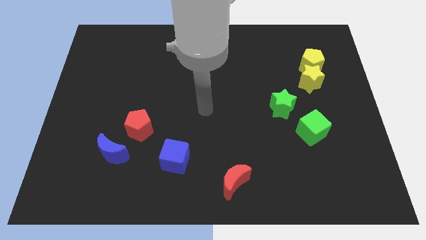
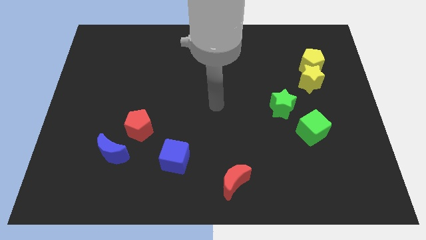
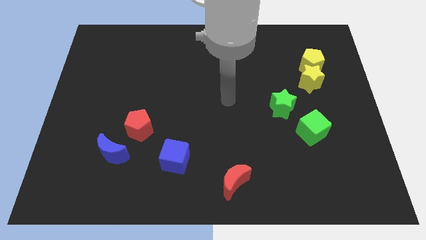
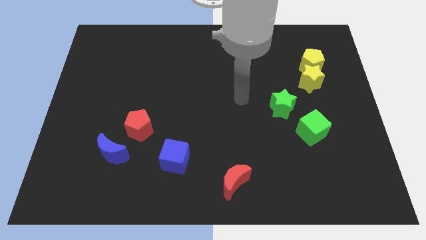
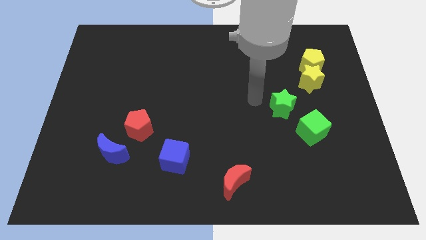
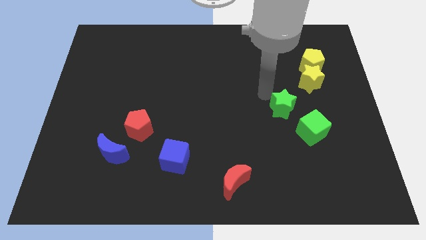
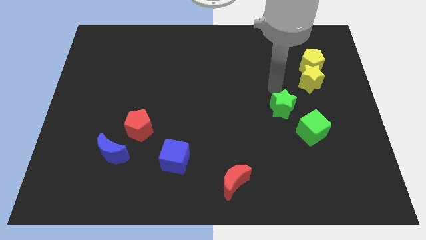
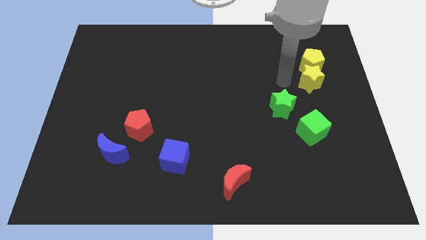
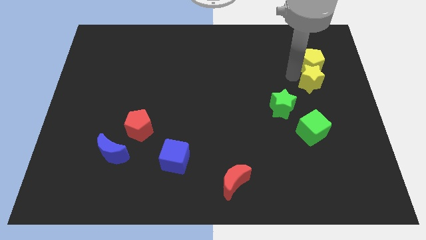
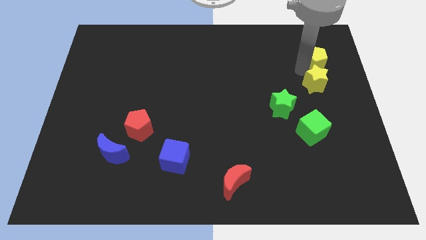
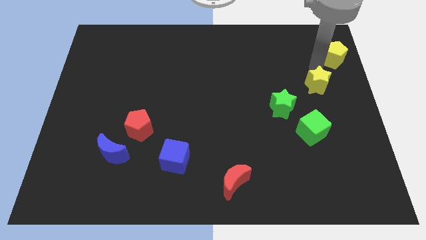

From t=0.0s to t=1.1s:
pull the yellow star apart from the yellow pentagon

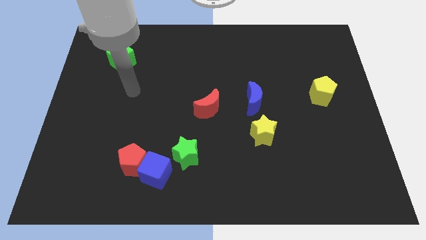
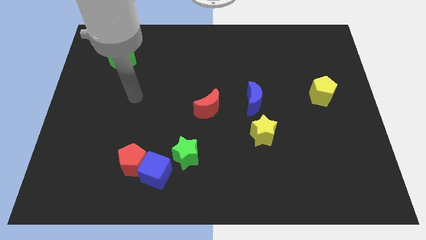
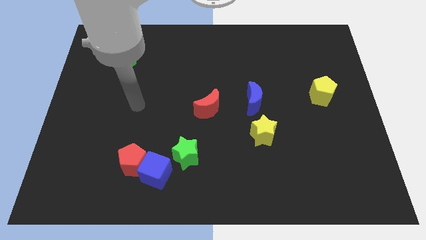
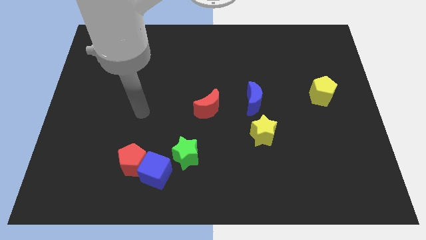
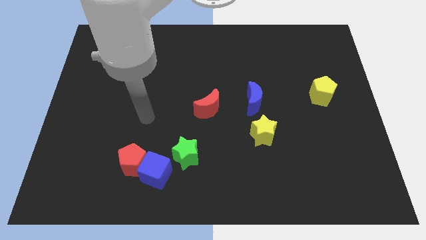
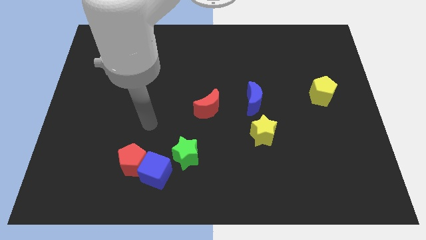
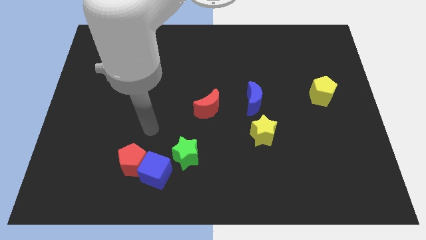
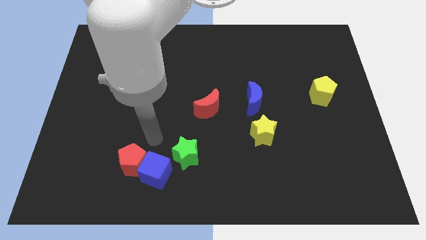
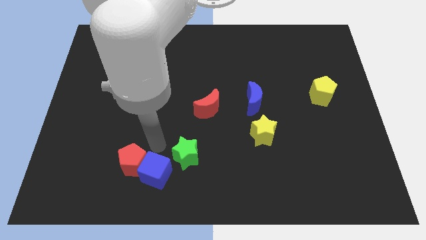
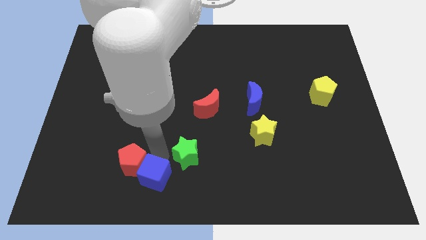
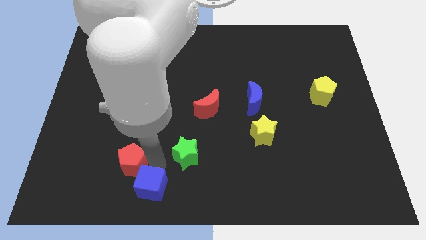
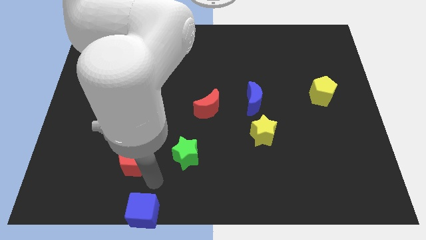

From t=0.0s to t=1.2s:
separate the red pentagon from the blue cube

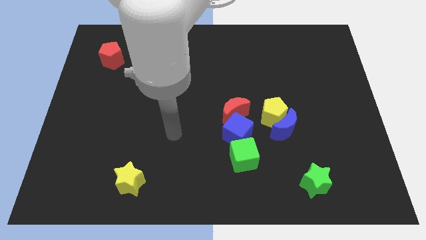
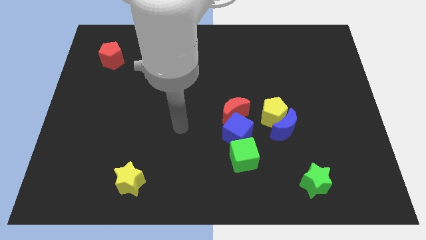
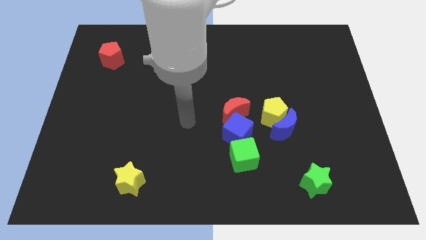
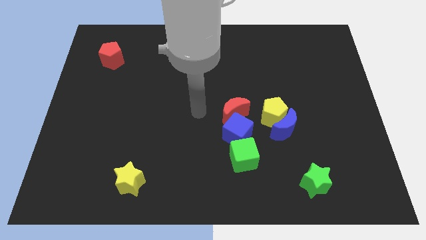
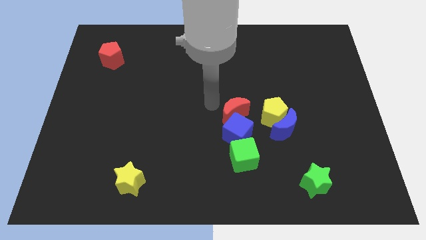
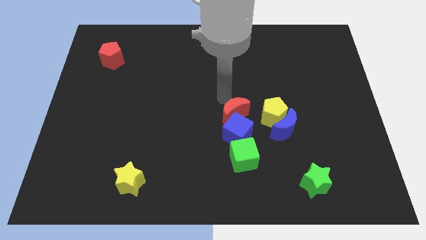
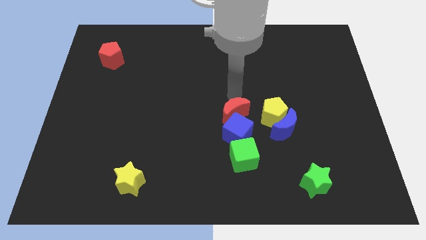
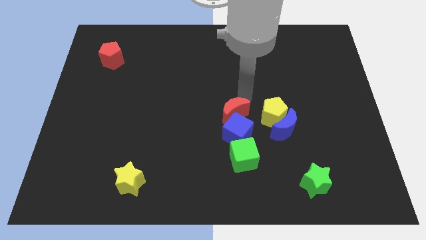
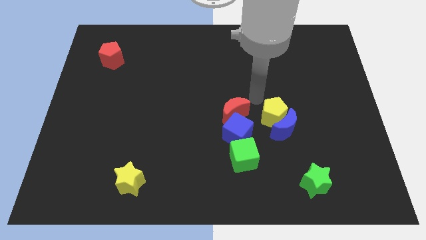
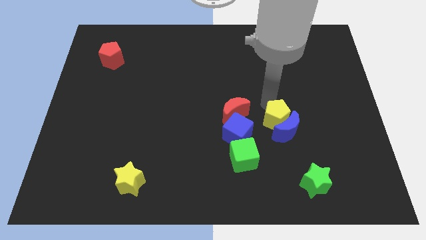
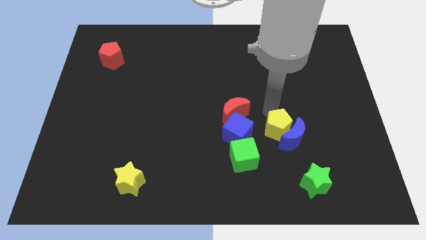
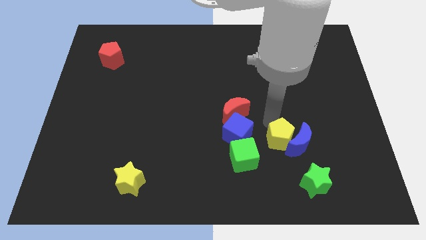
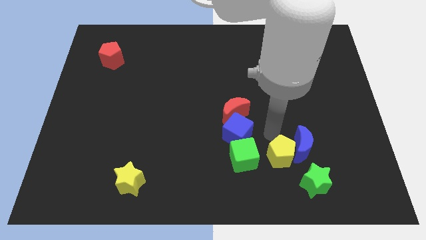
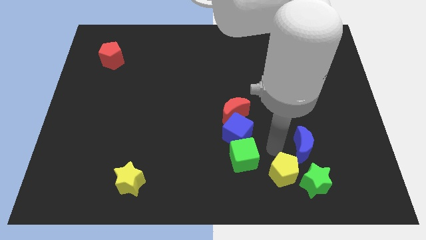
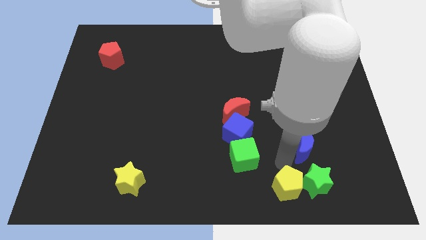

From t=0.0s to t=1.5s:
move the blue moon away from the yellow pentagon

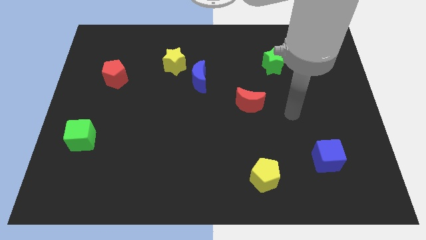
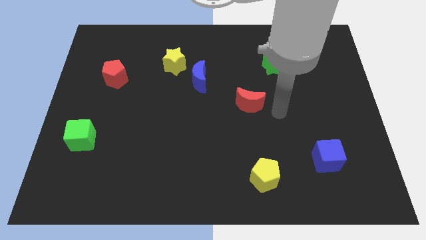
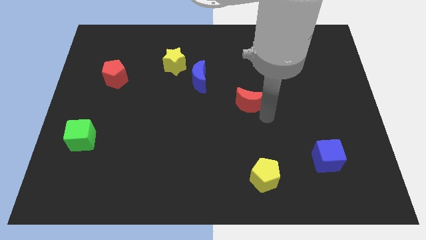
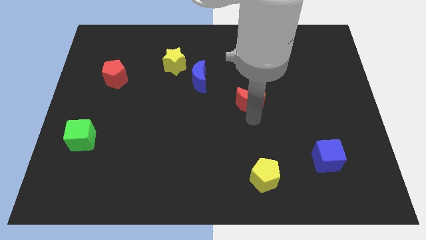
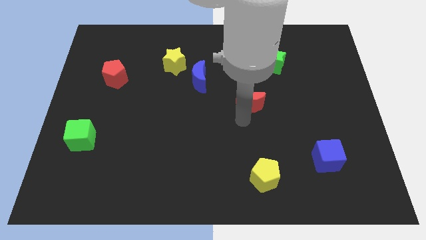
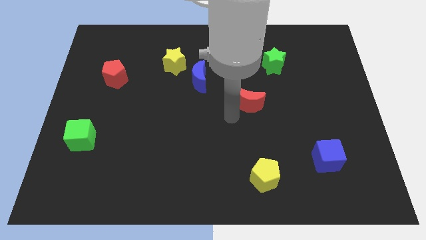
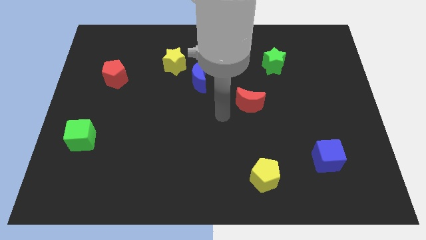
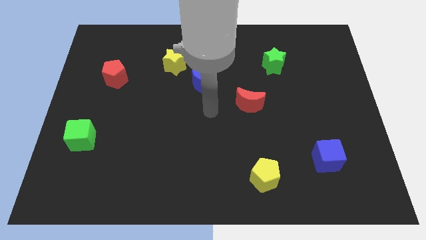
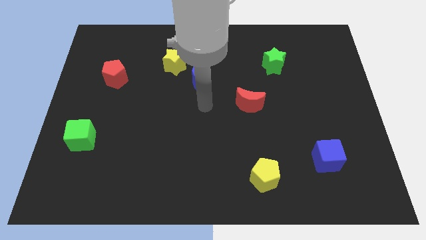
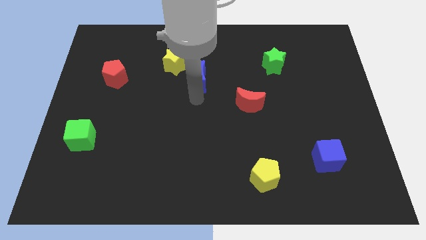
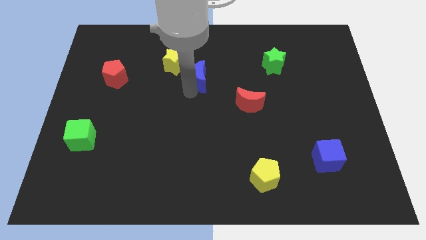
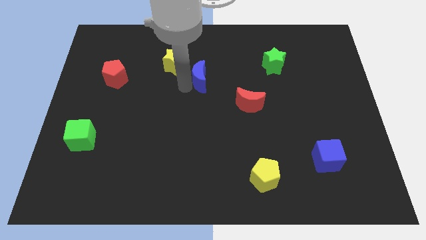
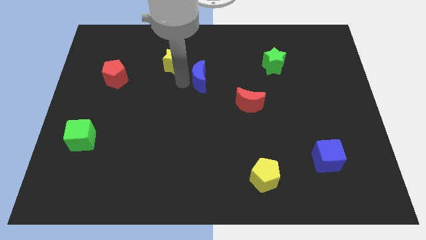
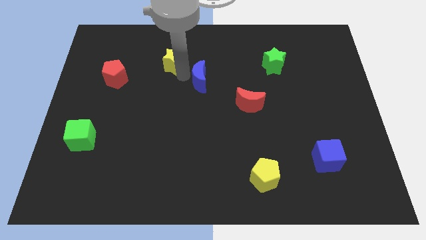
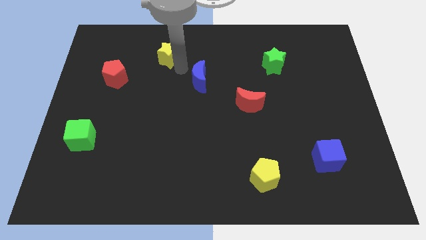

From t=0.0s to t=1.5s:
separate the blue moon from the yellow star

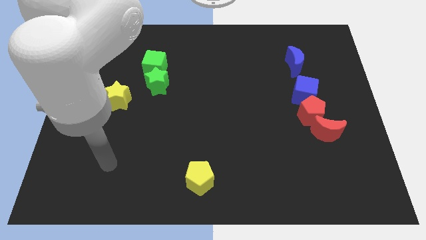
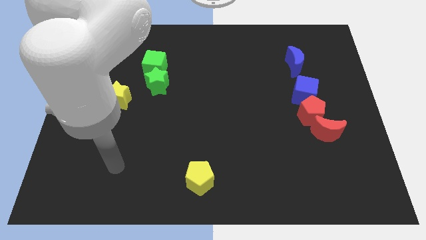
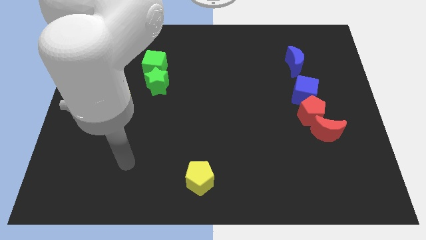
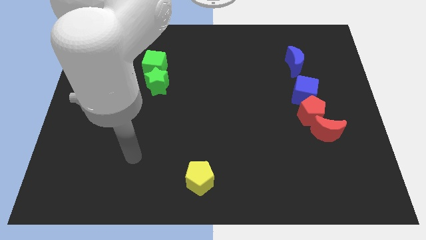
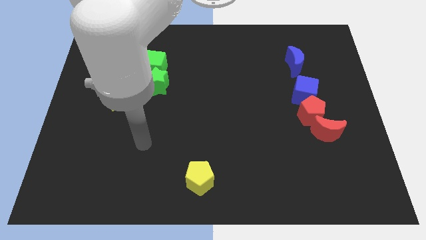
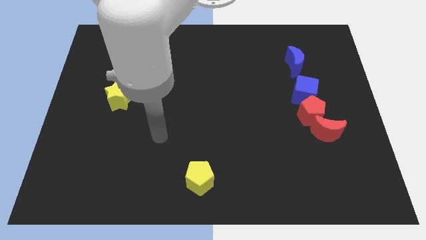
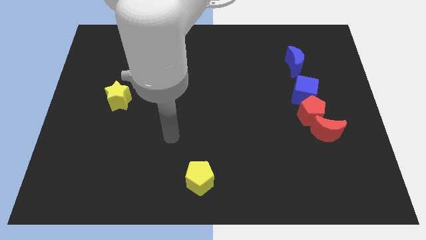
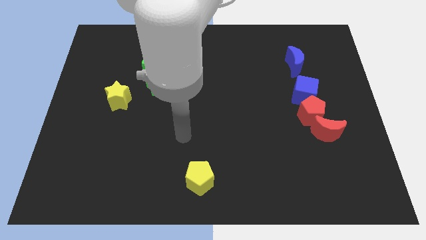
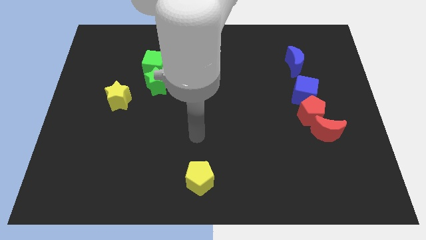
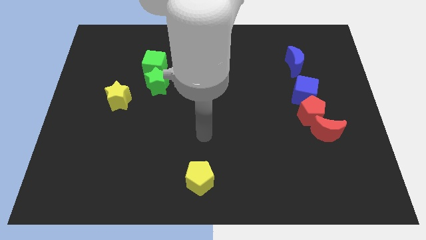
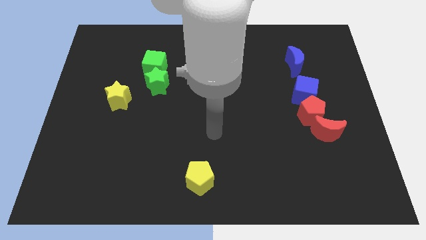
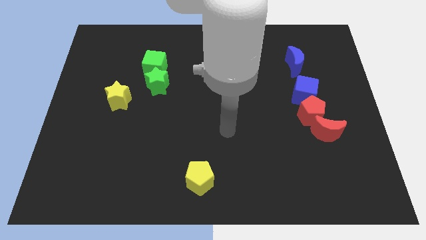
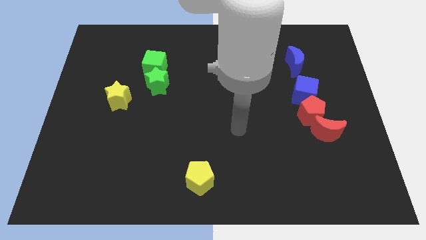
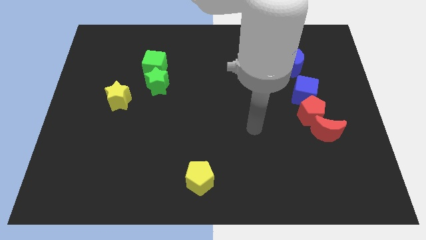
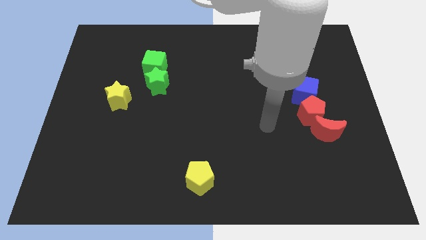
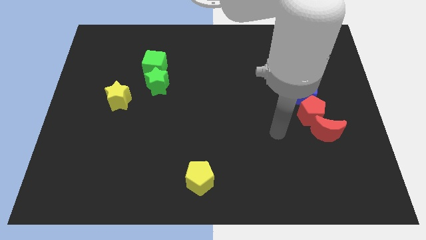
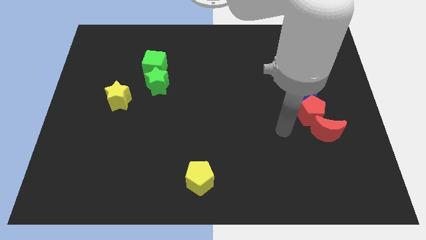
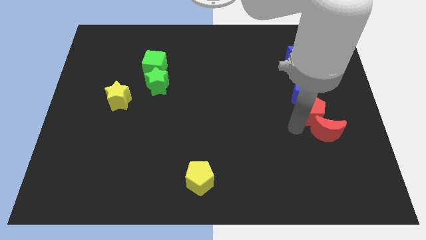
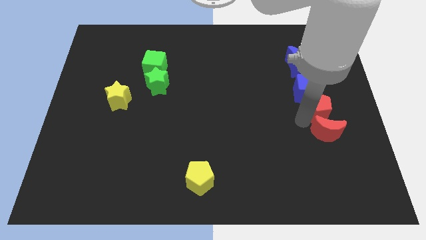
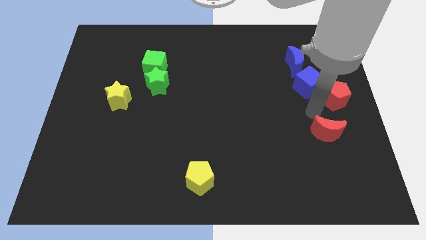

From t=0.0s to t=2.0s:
move the red moon away from the red pentagon

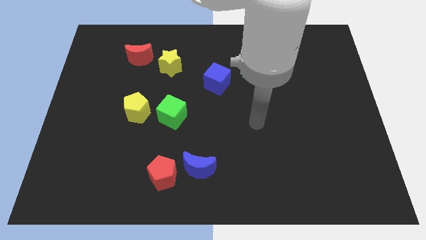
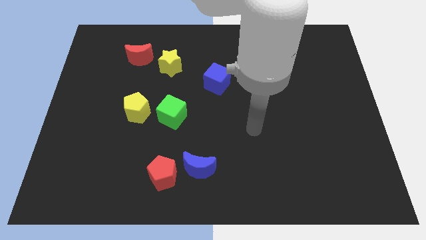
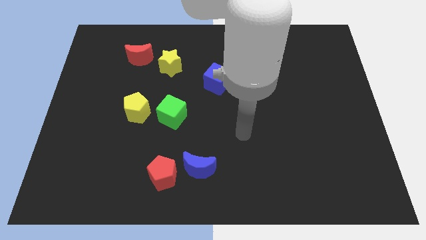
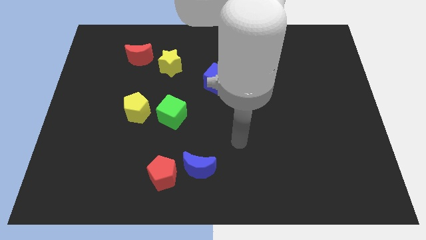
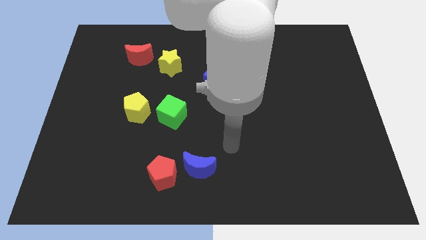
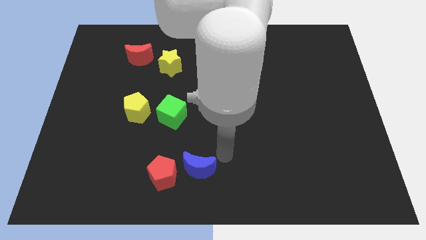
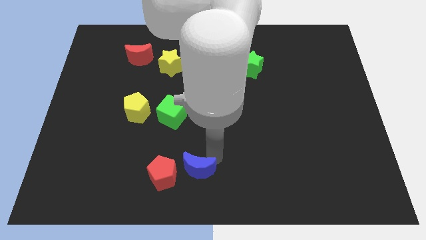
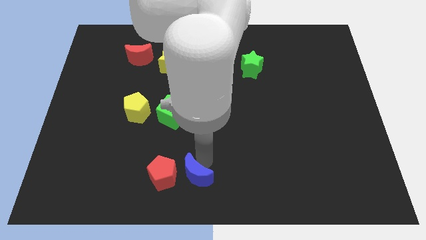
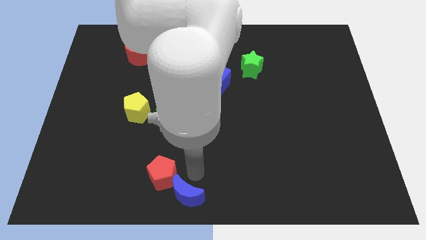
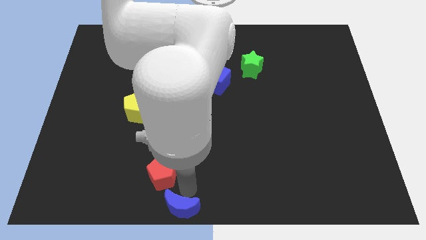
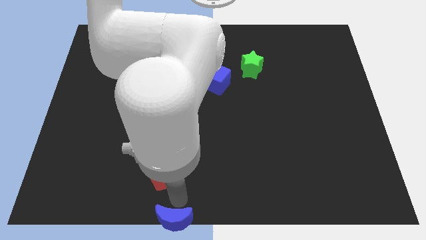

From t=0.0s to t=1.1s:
separate the red pentagon from the blue moon

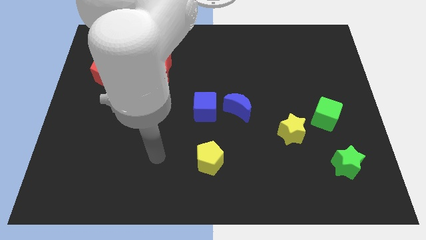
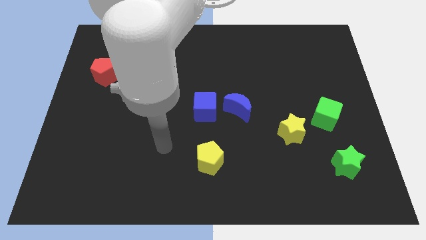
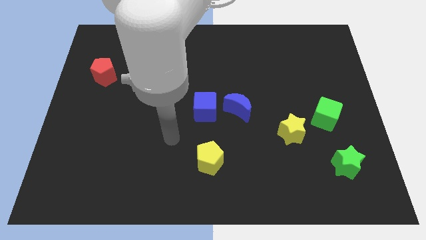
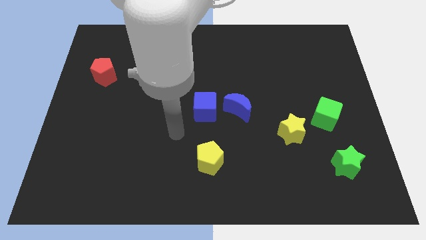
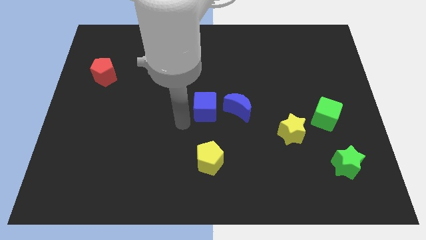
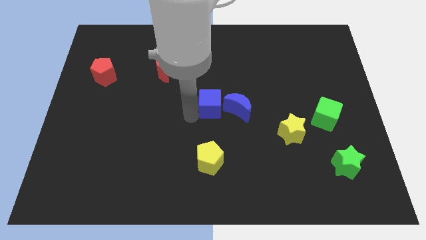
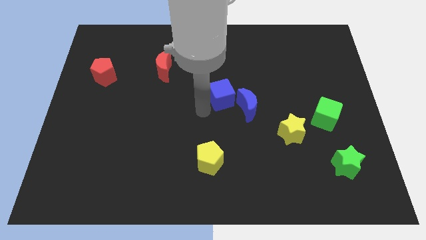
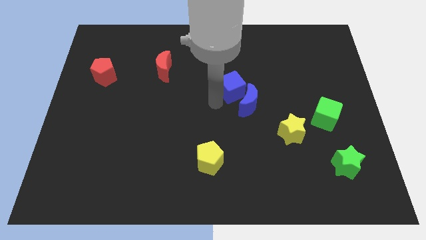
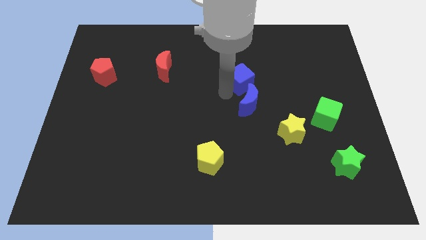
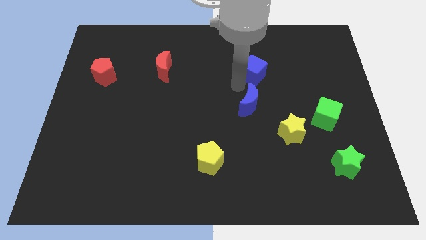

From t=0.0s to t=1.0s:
move the blue moon away from the blue cube
